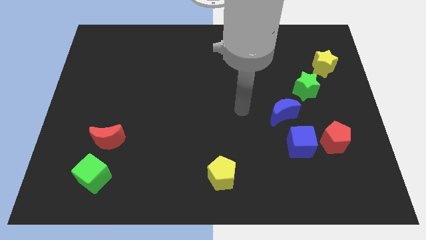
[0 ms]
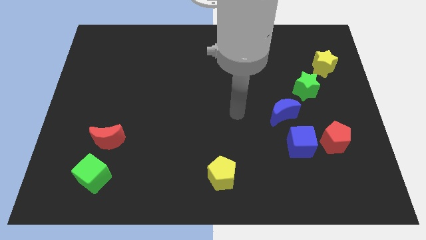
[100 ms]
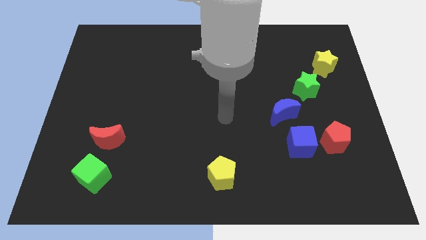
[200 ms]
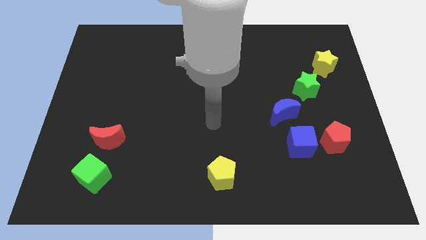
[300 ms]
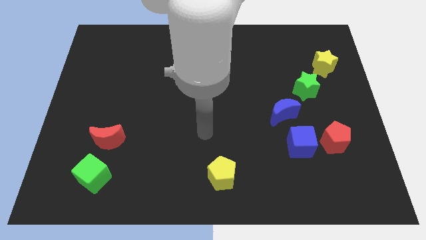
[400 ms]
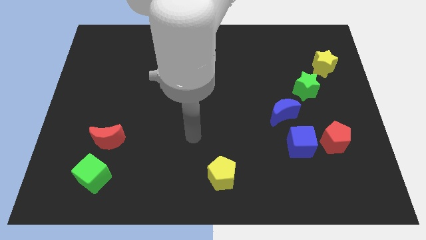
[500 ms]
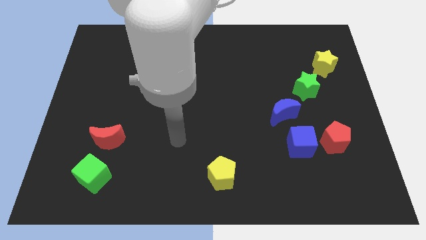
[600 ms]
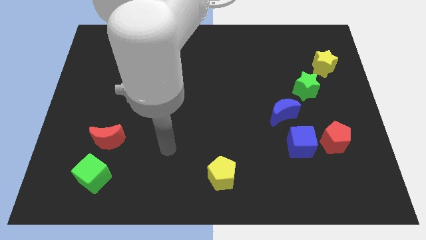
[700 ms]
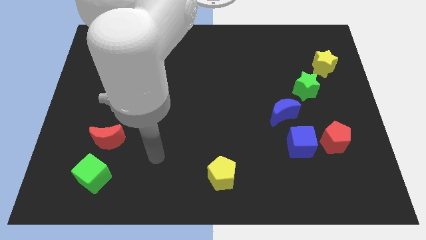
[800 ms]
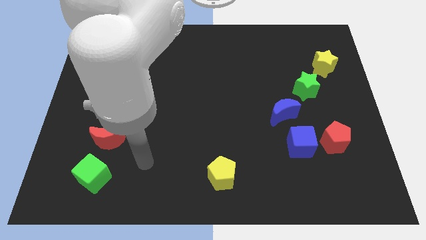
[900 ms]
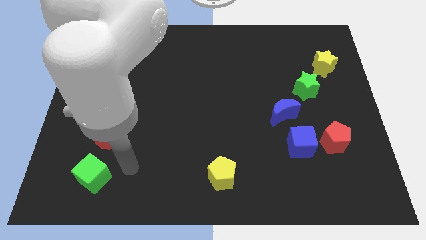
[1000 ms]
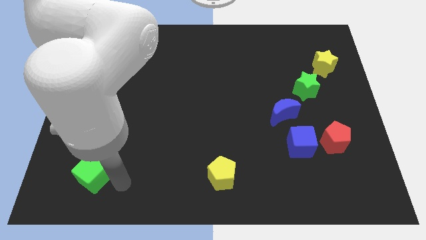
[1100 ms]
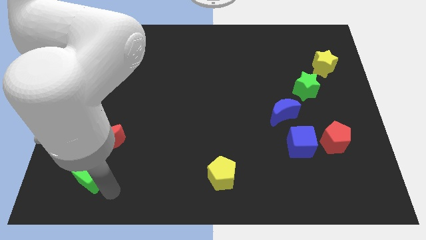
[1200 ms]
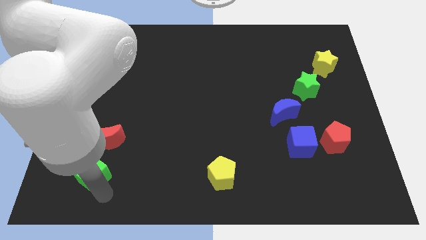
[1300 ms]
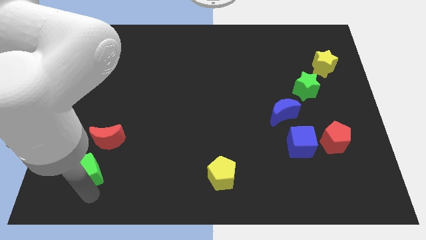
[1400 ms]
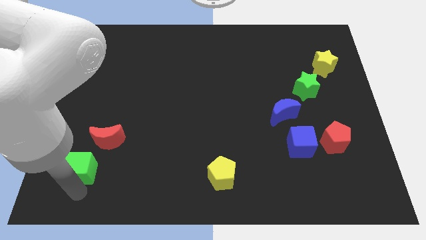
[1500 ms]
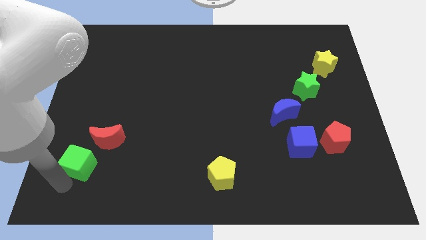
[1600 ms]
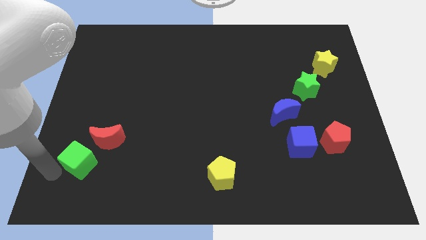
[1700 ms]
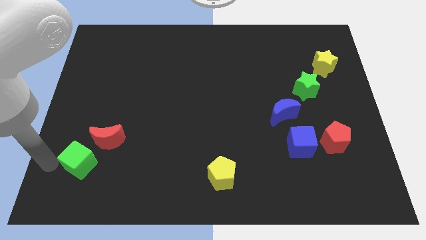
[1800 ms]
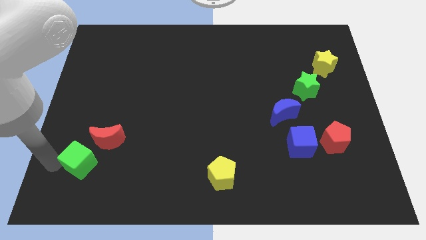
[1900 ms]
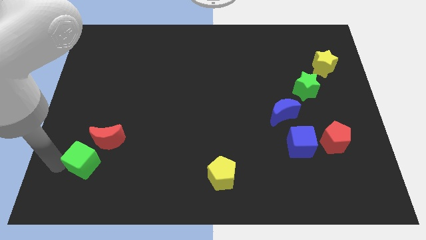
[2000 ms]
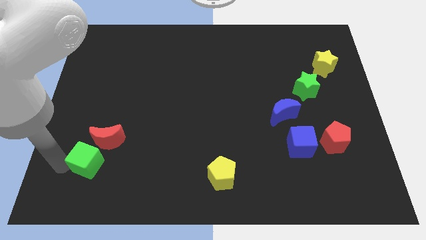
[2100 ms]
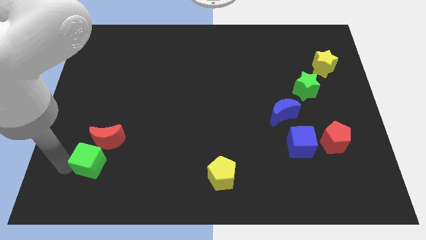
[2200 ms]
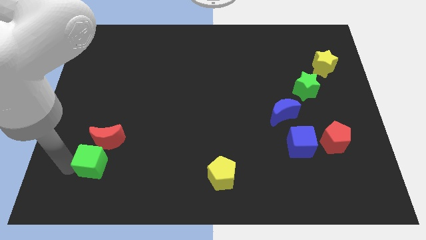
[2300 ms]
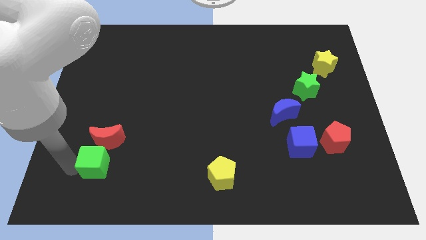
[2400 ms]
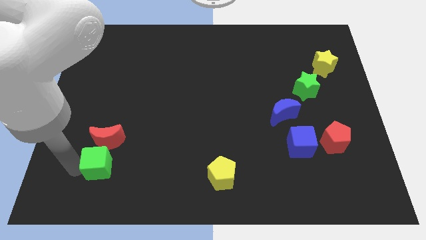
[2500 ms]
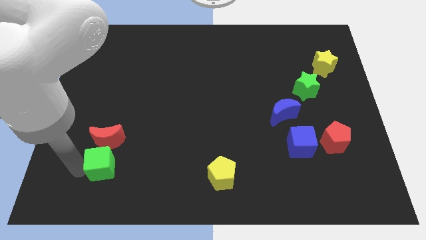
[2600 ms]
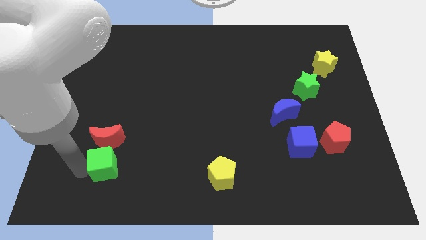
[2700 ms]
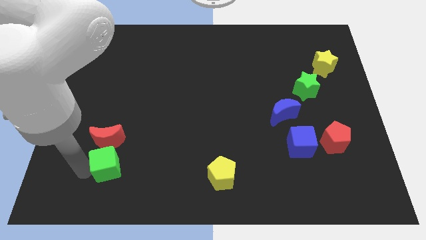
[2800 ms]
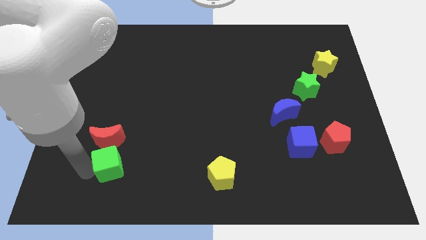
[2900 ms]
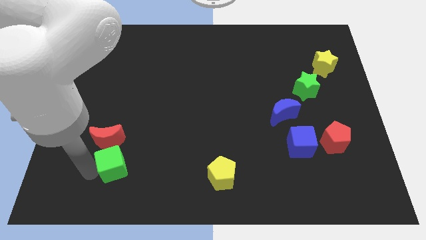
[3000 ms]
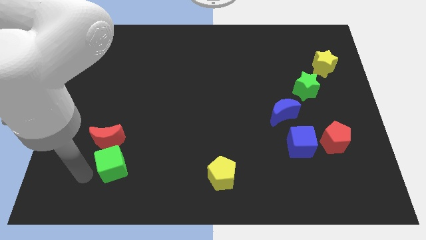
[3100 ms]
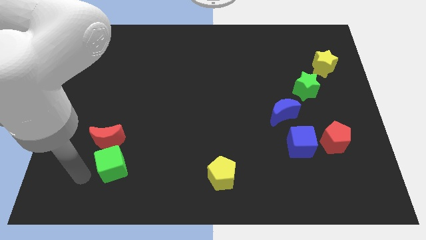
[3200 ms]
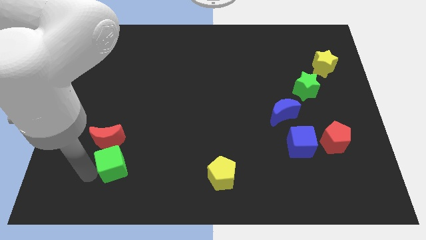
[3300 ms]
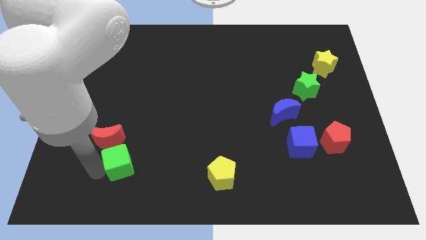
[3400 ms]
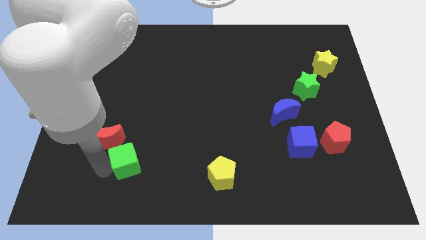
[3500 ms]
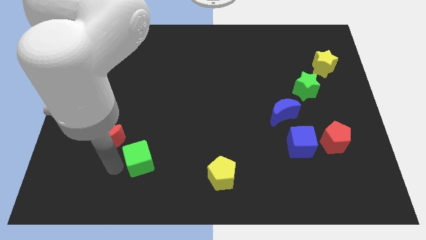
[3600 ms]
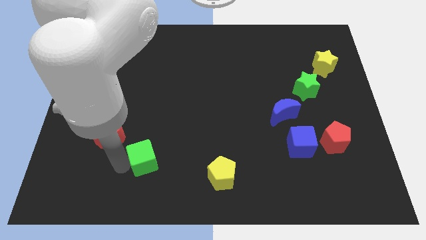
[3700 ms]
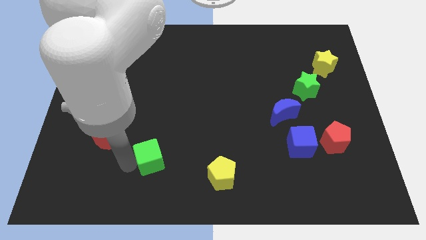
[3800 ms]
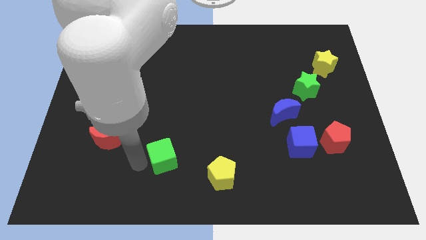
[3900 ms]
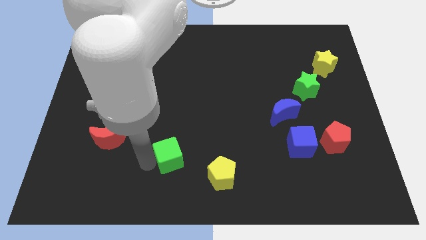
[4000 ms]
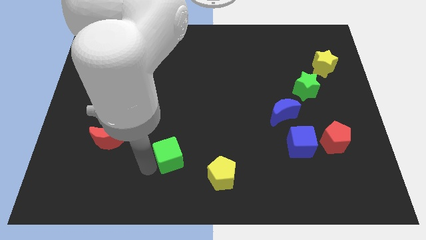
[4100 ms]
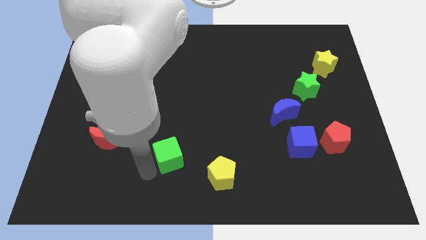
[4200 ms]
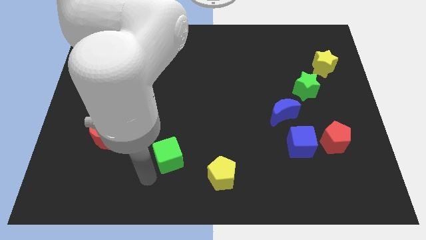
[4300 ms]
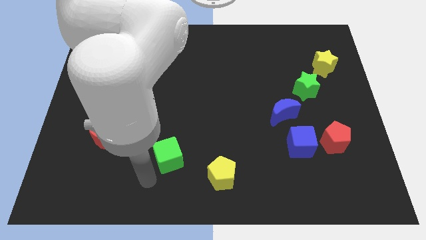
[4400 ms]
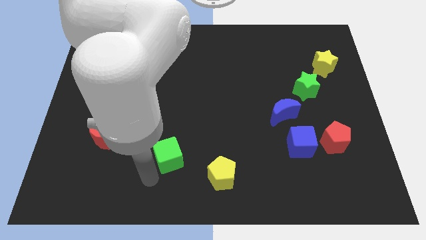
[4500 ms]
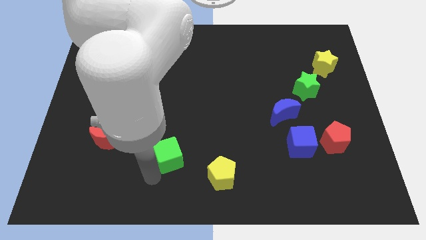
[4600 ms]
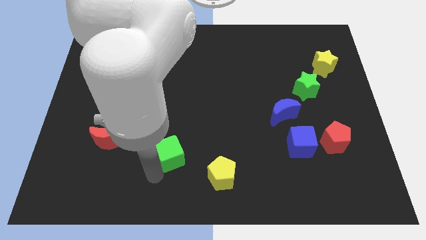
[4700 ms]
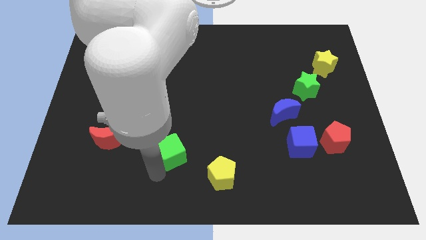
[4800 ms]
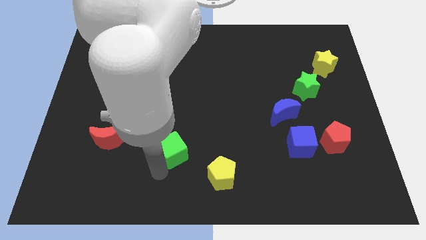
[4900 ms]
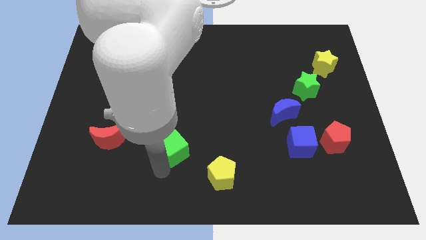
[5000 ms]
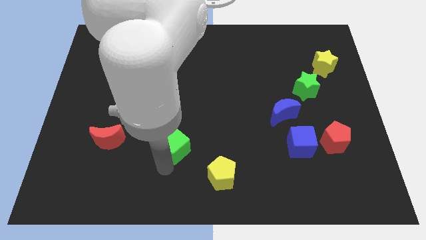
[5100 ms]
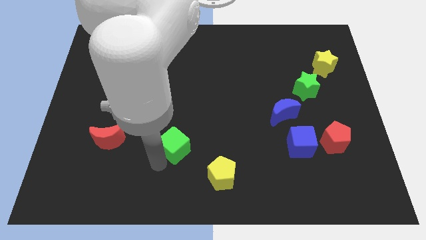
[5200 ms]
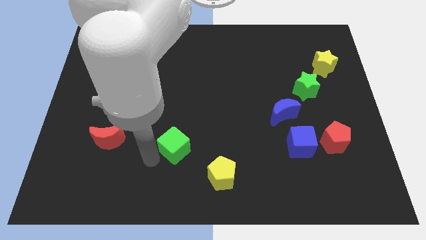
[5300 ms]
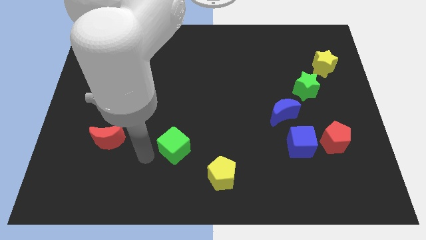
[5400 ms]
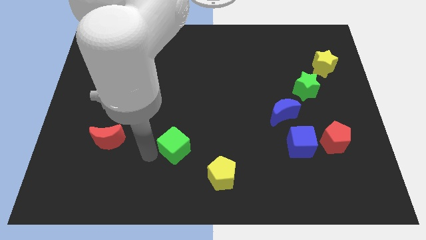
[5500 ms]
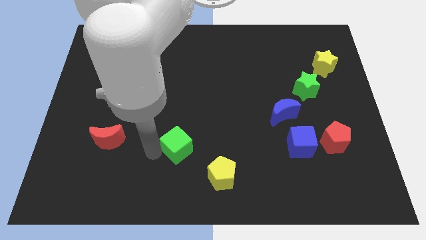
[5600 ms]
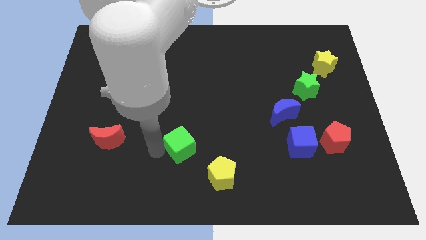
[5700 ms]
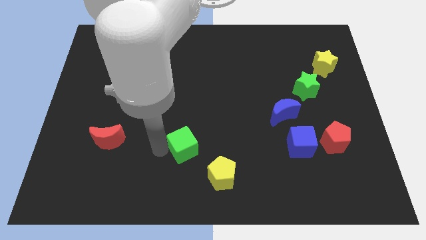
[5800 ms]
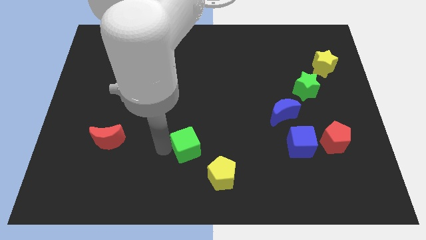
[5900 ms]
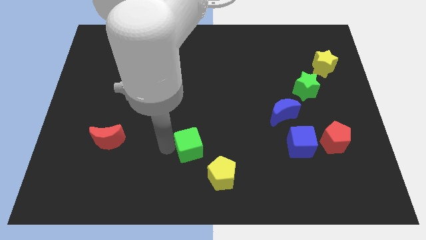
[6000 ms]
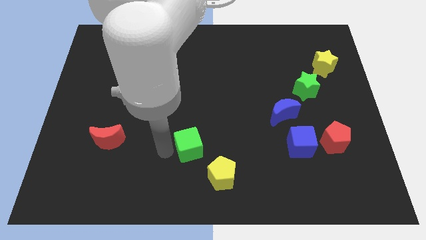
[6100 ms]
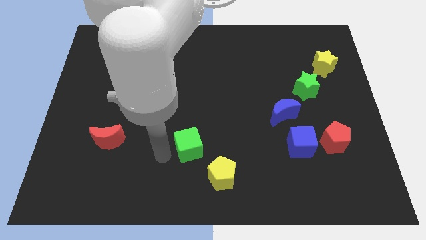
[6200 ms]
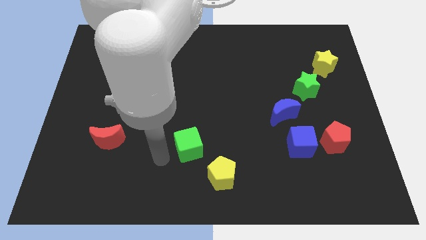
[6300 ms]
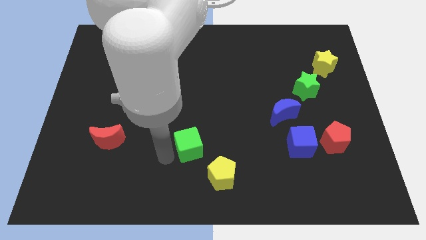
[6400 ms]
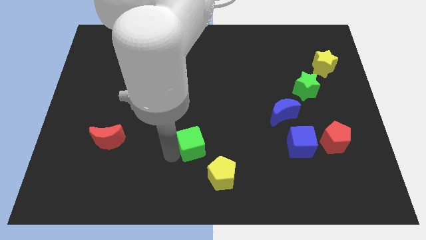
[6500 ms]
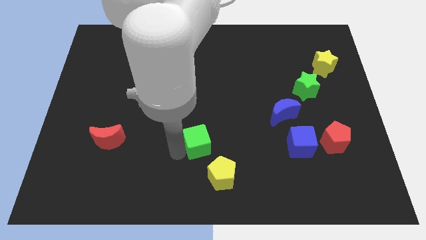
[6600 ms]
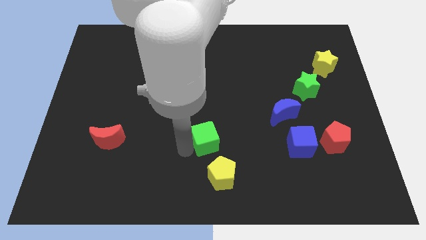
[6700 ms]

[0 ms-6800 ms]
move the green cube above the yellow pentagon

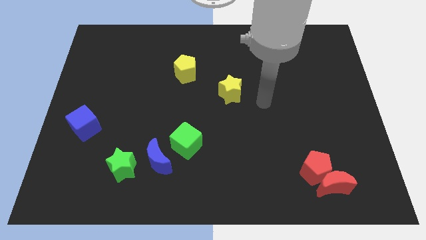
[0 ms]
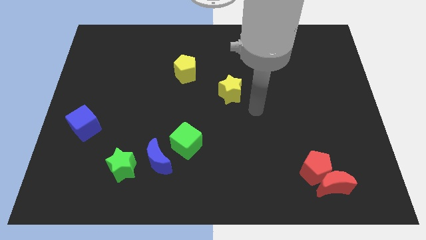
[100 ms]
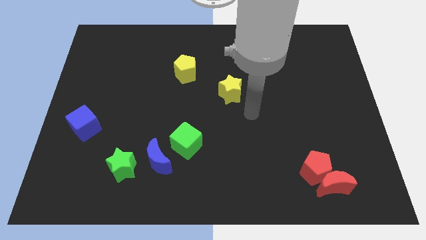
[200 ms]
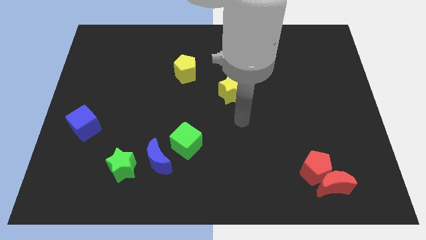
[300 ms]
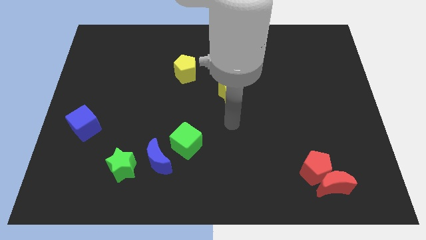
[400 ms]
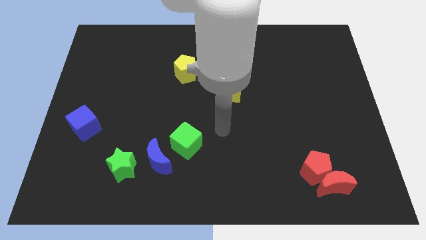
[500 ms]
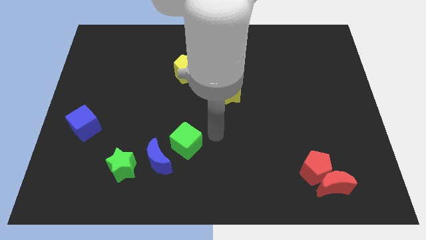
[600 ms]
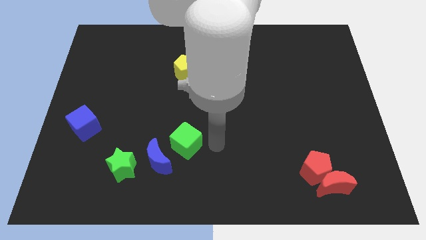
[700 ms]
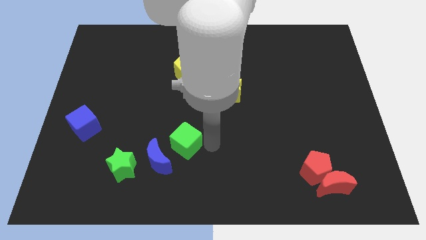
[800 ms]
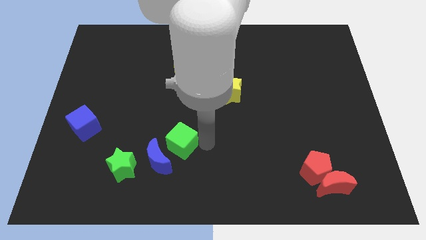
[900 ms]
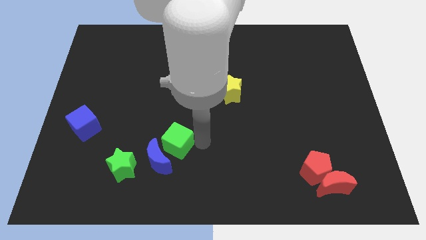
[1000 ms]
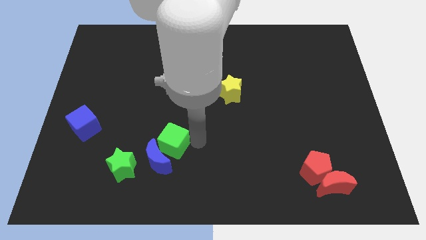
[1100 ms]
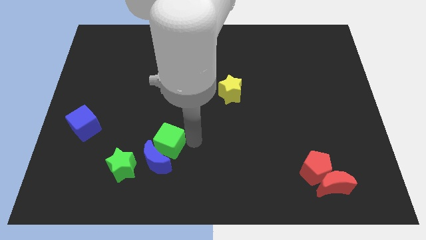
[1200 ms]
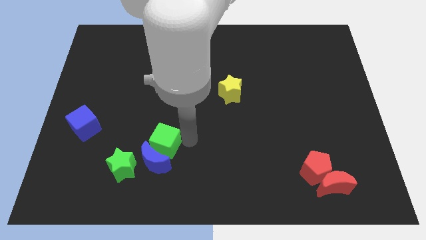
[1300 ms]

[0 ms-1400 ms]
put the green cube to the top left of the blue moon
